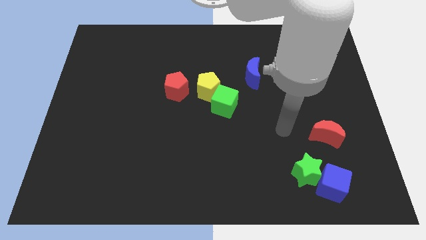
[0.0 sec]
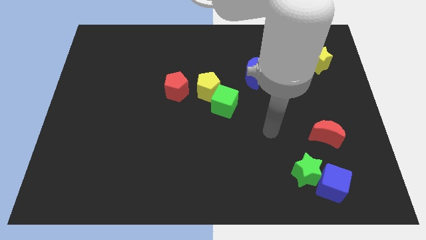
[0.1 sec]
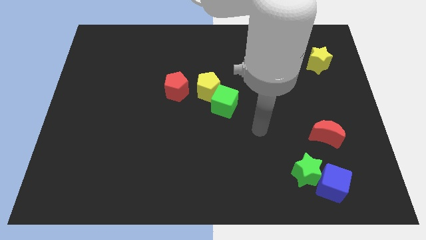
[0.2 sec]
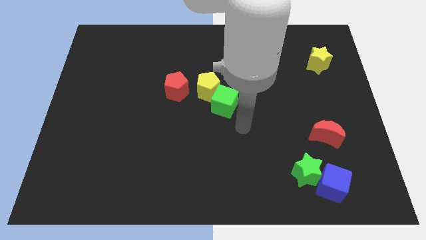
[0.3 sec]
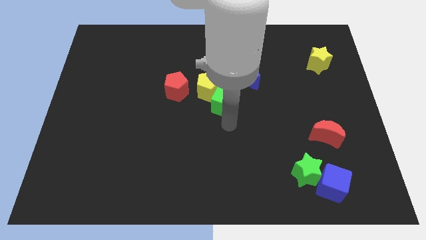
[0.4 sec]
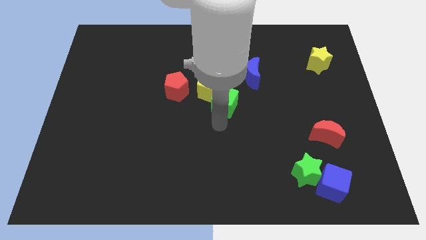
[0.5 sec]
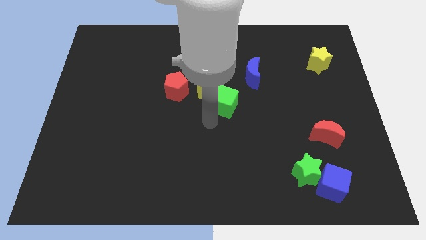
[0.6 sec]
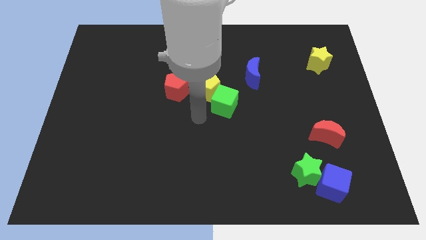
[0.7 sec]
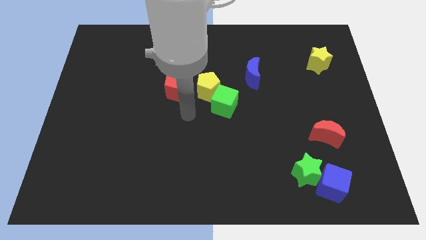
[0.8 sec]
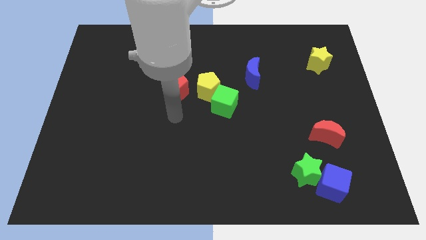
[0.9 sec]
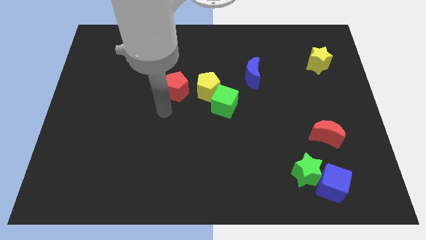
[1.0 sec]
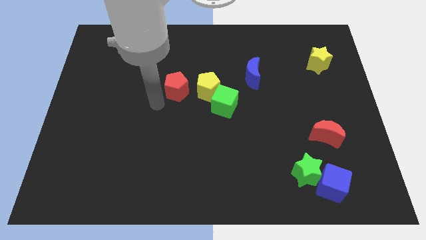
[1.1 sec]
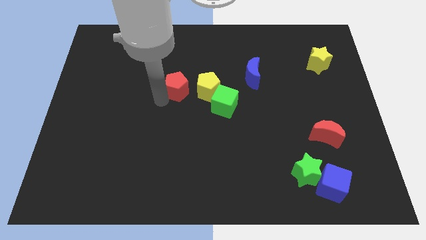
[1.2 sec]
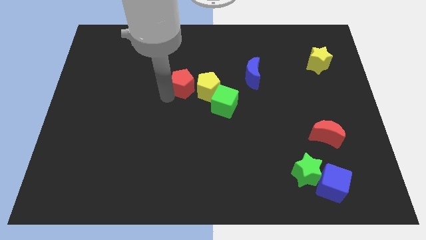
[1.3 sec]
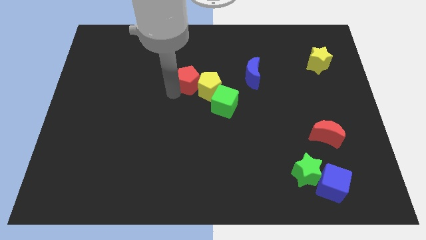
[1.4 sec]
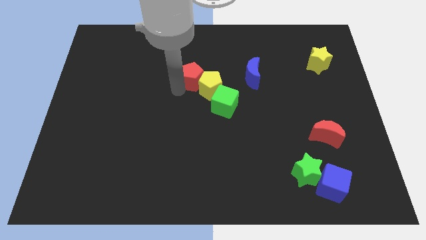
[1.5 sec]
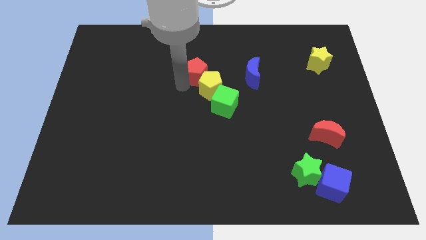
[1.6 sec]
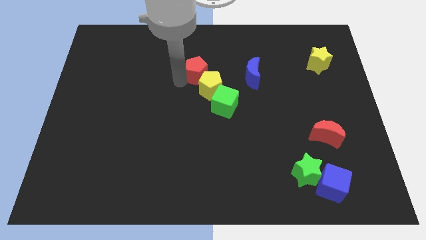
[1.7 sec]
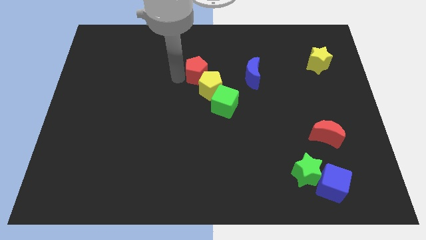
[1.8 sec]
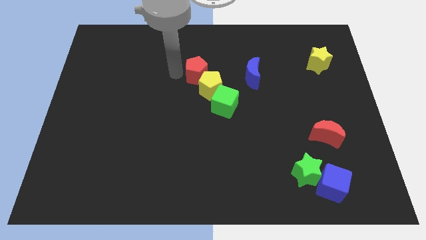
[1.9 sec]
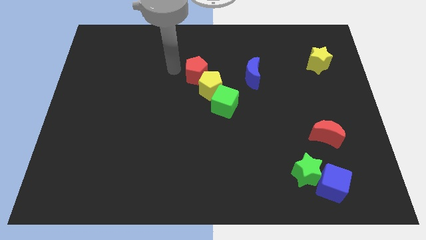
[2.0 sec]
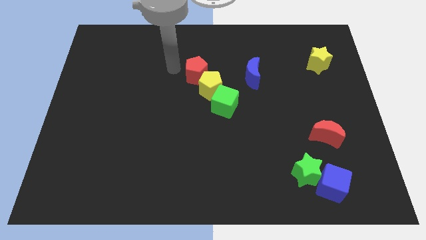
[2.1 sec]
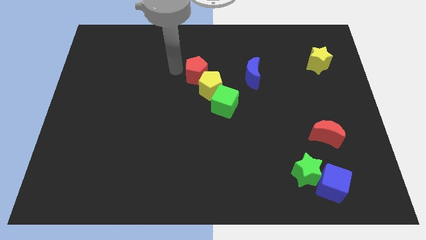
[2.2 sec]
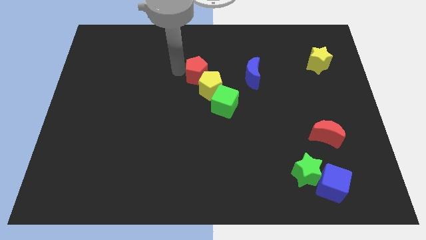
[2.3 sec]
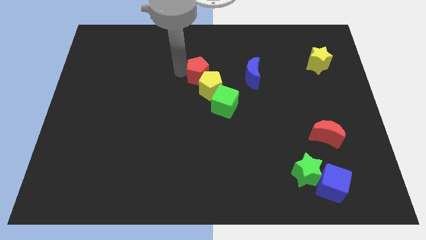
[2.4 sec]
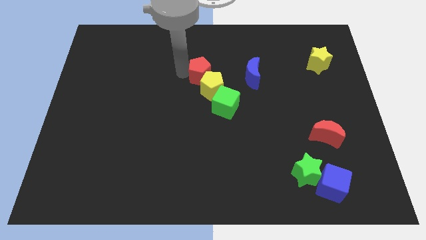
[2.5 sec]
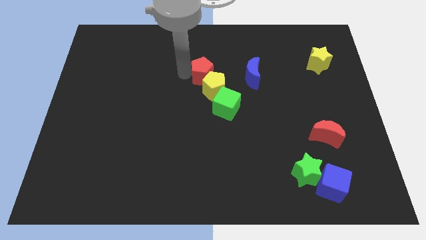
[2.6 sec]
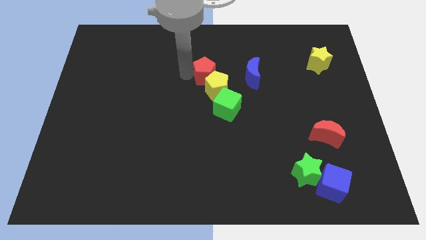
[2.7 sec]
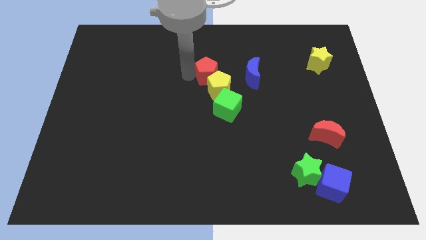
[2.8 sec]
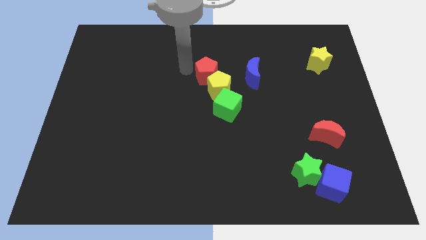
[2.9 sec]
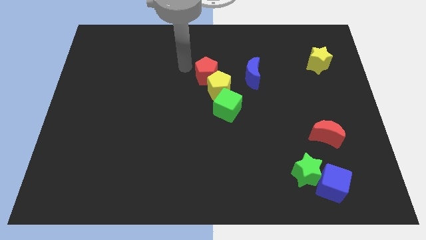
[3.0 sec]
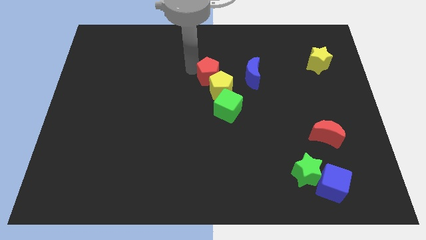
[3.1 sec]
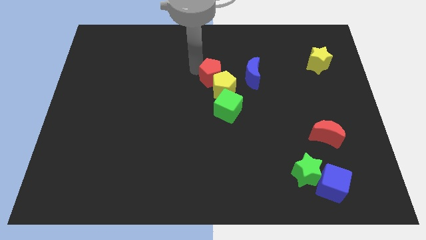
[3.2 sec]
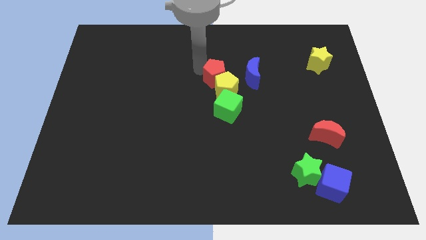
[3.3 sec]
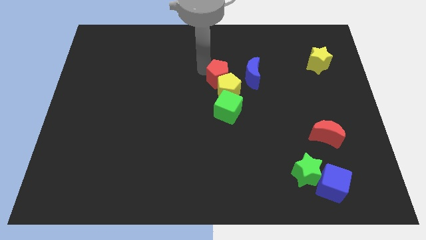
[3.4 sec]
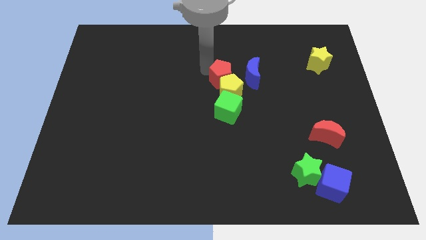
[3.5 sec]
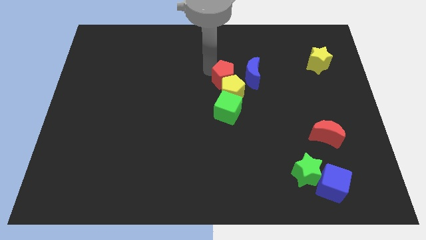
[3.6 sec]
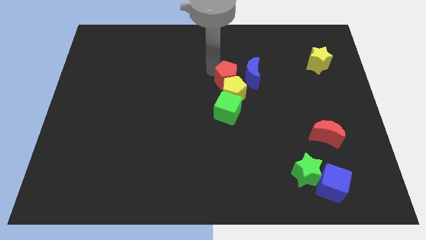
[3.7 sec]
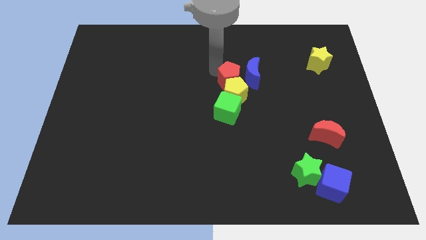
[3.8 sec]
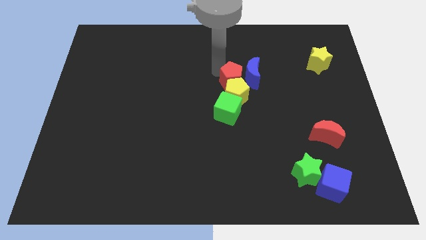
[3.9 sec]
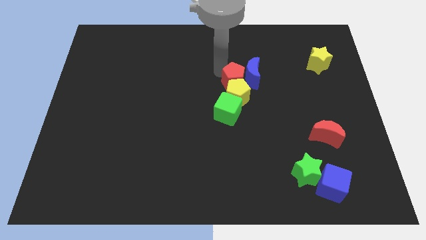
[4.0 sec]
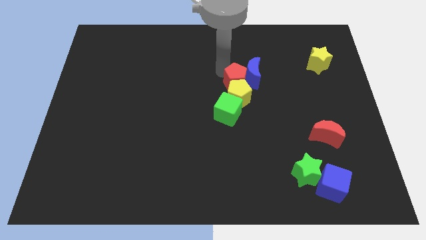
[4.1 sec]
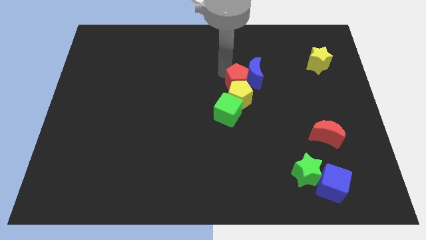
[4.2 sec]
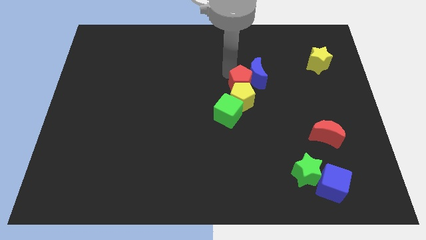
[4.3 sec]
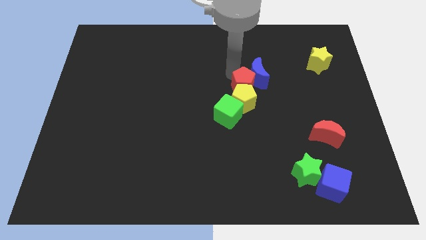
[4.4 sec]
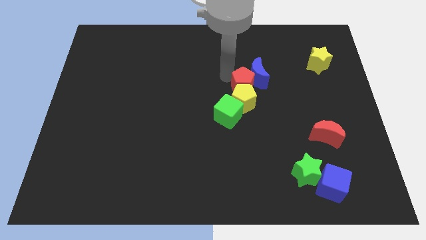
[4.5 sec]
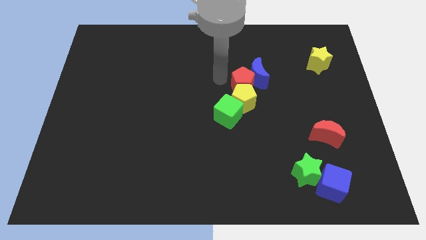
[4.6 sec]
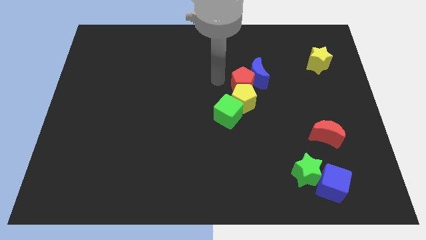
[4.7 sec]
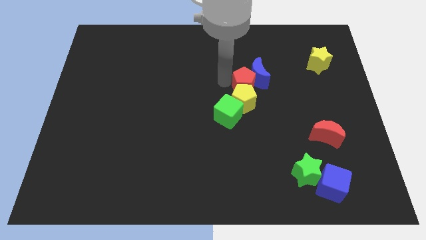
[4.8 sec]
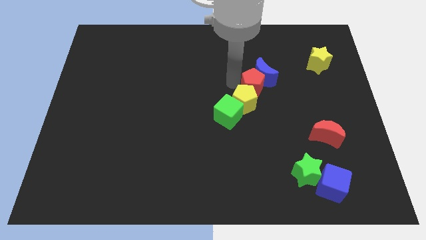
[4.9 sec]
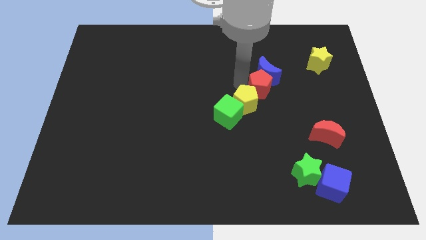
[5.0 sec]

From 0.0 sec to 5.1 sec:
move the red pentagon to the right

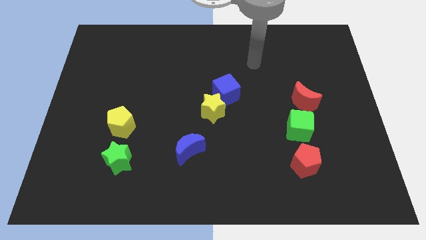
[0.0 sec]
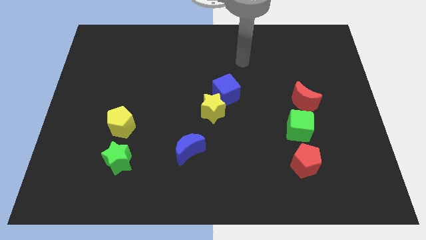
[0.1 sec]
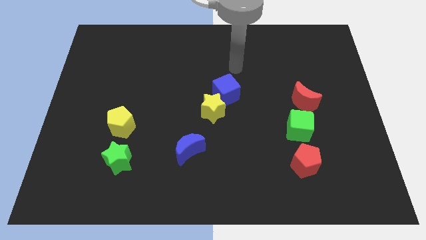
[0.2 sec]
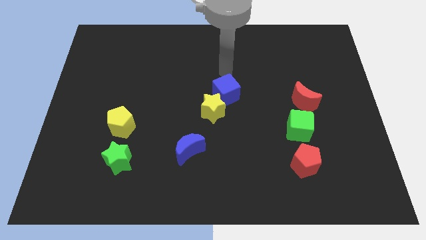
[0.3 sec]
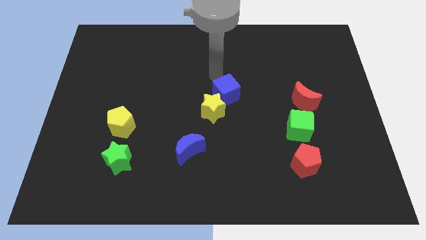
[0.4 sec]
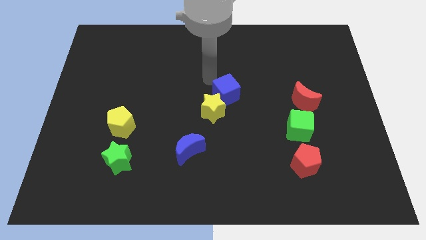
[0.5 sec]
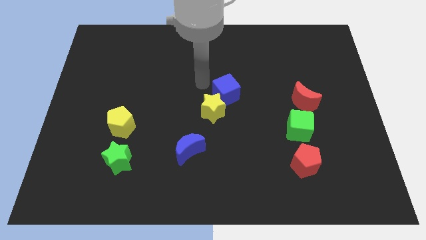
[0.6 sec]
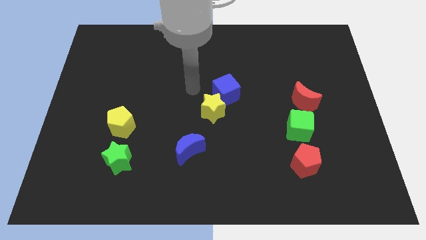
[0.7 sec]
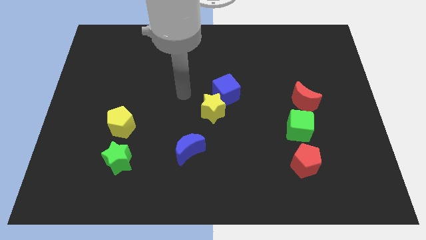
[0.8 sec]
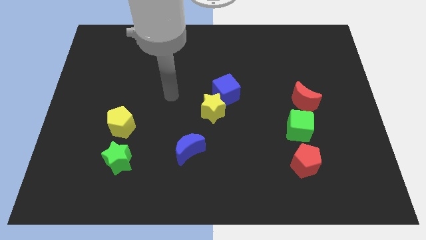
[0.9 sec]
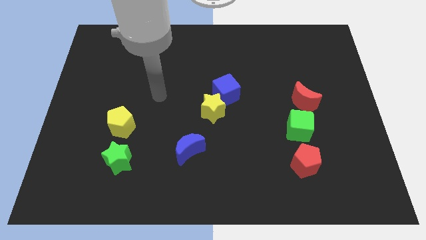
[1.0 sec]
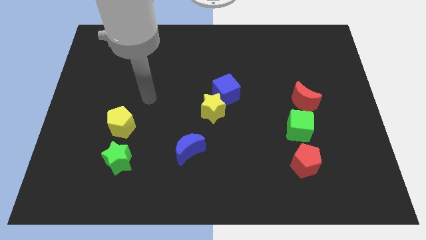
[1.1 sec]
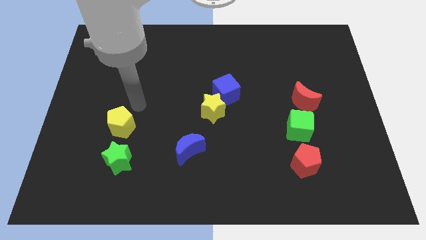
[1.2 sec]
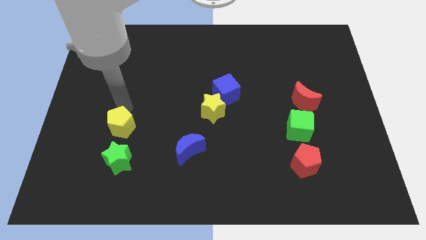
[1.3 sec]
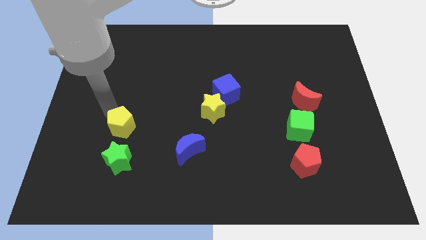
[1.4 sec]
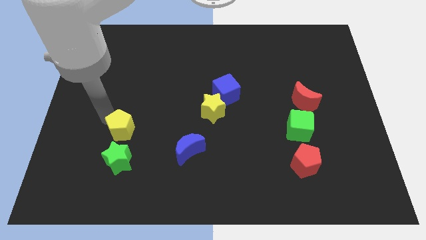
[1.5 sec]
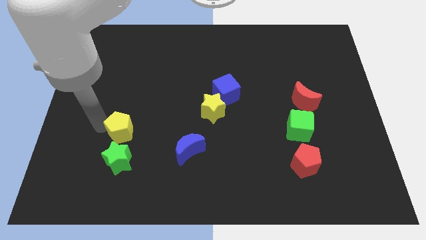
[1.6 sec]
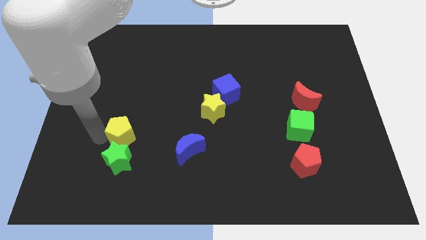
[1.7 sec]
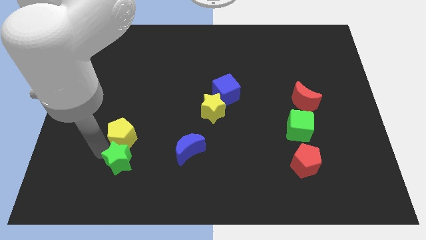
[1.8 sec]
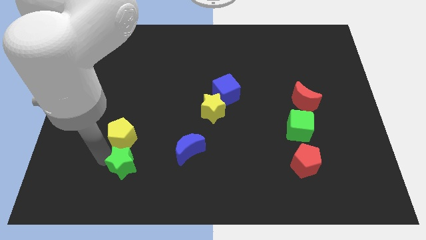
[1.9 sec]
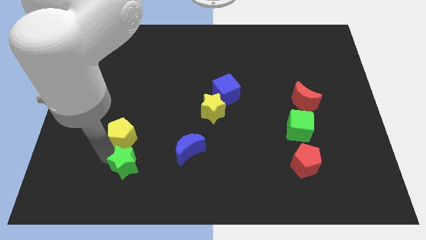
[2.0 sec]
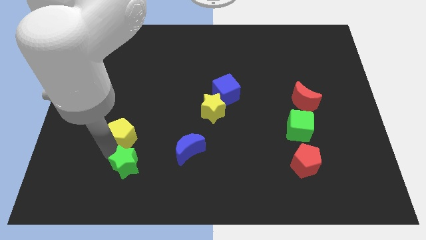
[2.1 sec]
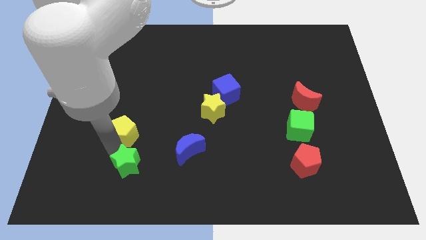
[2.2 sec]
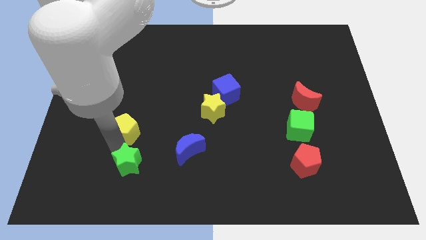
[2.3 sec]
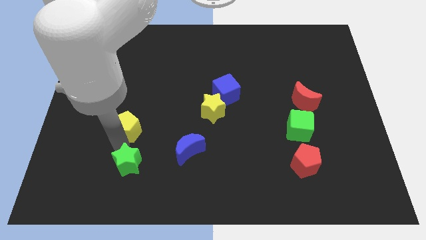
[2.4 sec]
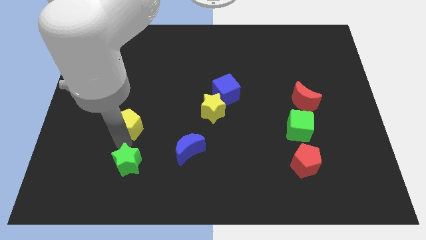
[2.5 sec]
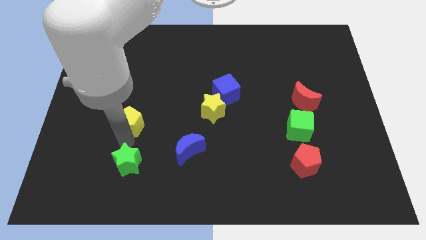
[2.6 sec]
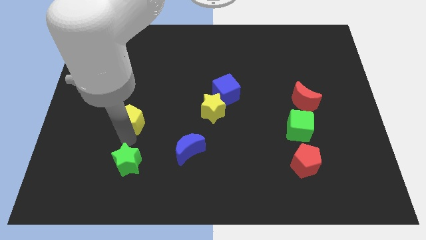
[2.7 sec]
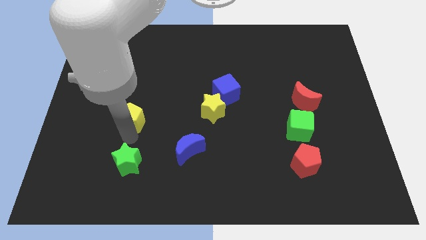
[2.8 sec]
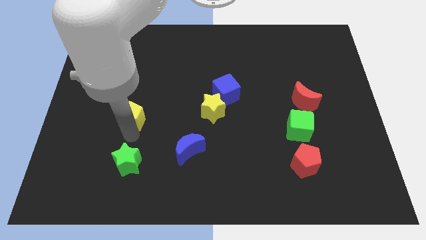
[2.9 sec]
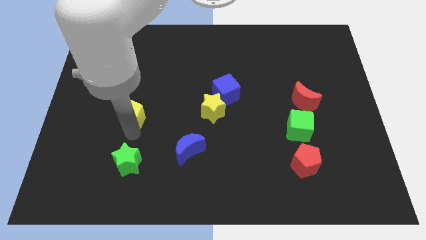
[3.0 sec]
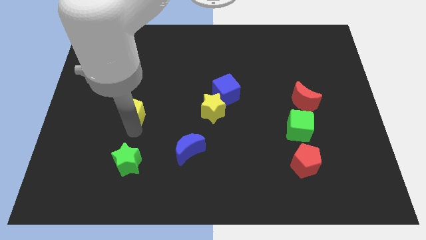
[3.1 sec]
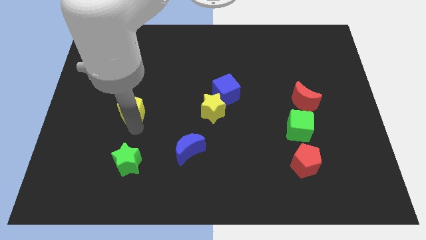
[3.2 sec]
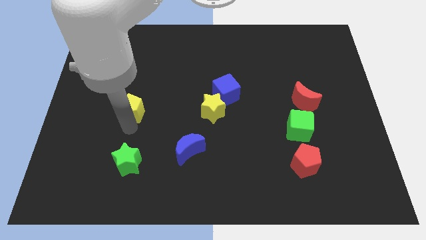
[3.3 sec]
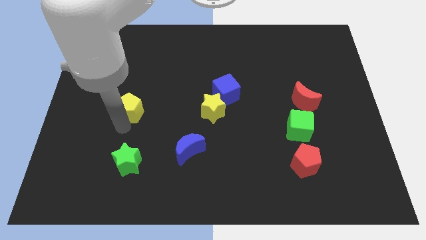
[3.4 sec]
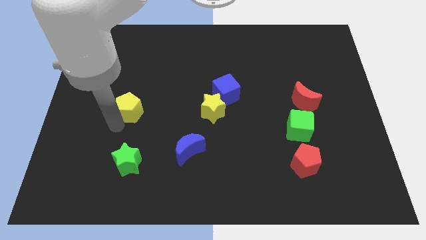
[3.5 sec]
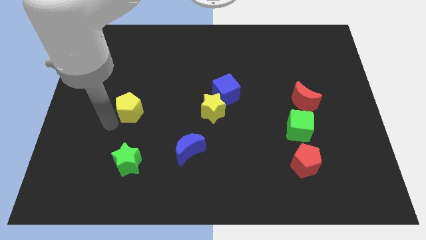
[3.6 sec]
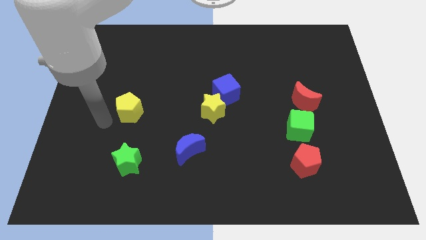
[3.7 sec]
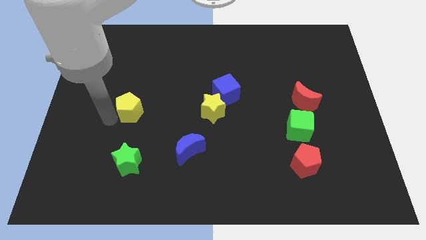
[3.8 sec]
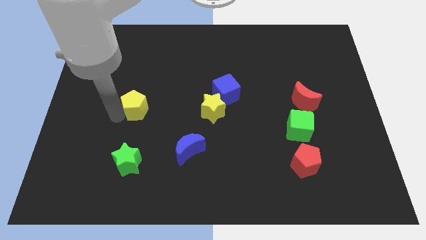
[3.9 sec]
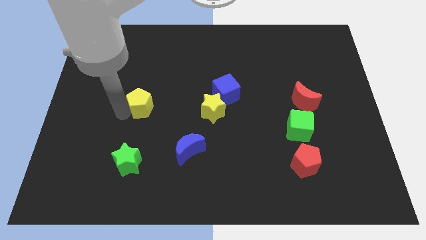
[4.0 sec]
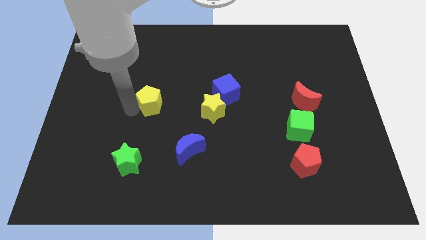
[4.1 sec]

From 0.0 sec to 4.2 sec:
push the yellow pentagon a little upwards and to the right diagonally
